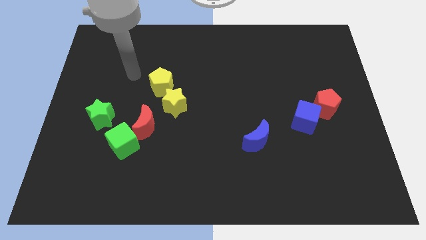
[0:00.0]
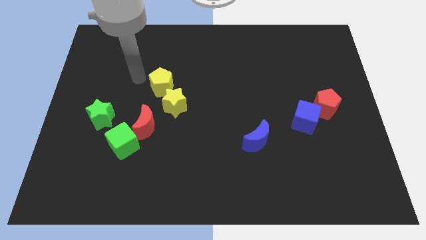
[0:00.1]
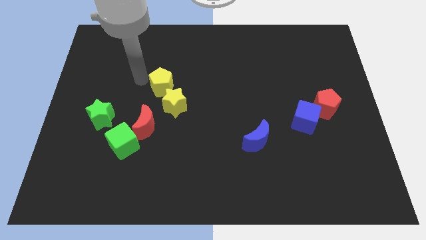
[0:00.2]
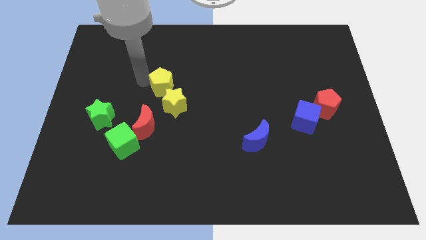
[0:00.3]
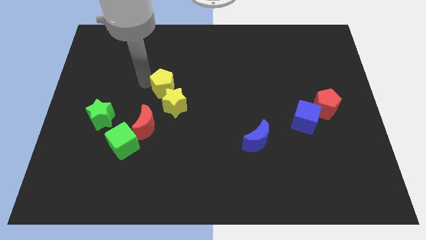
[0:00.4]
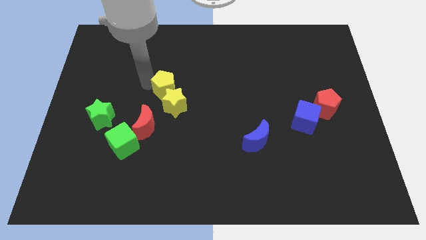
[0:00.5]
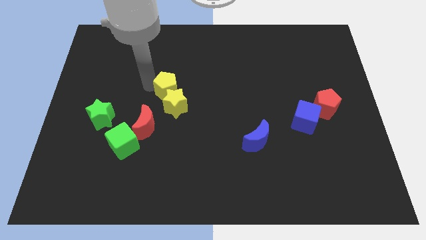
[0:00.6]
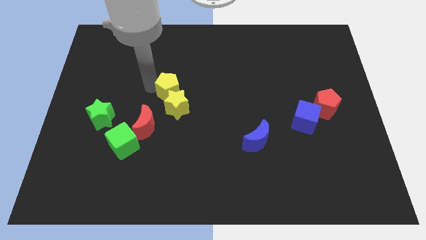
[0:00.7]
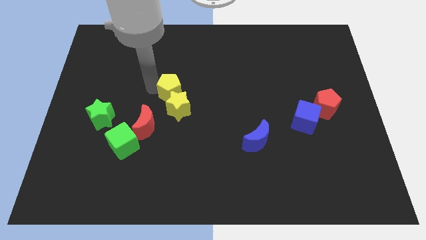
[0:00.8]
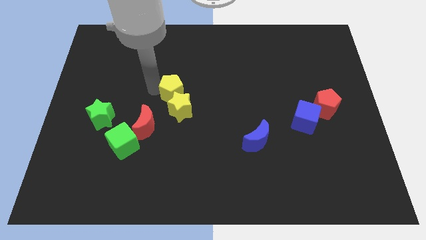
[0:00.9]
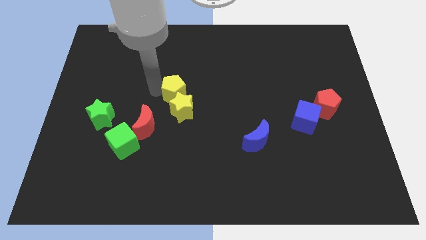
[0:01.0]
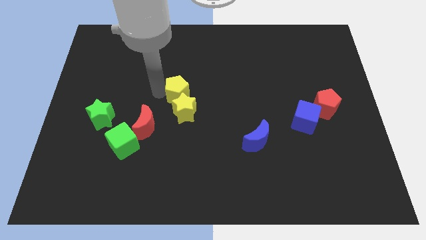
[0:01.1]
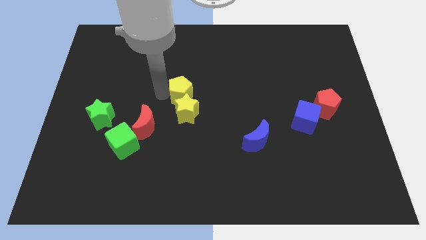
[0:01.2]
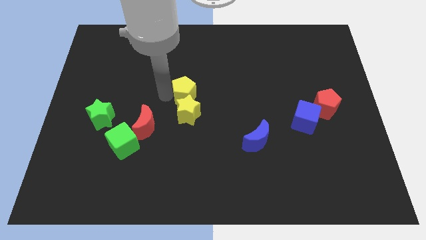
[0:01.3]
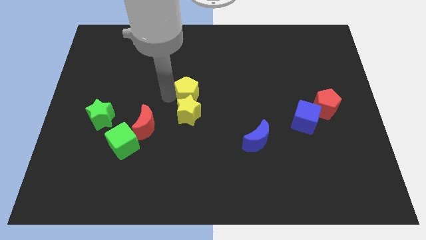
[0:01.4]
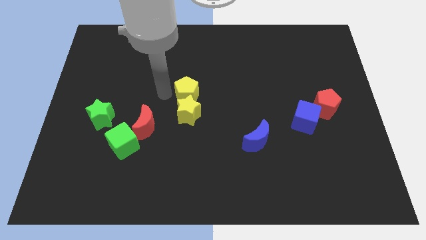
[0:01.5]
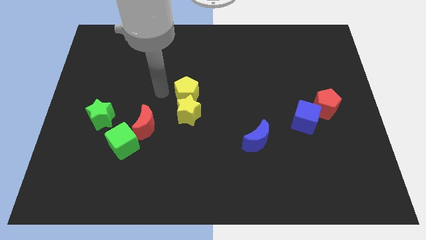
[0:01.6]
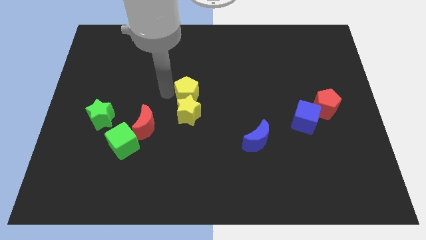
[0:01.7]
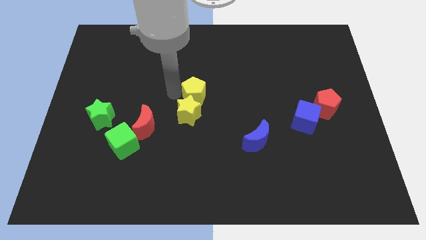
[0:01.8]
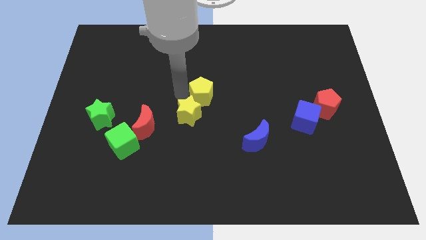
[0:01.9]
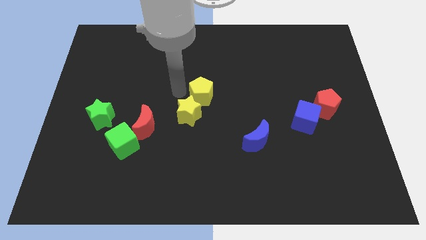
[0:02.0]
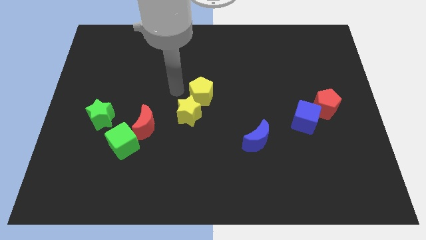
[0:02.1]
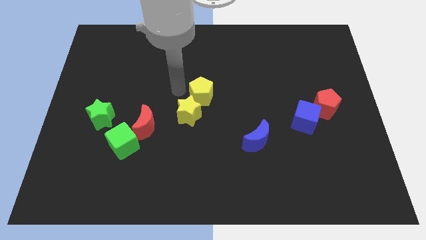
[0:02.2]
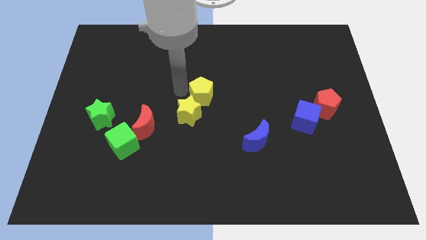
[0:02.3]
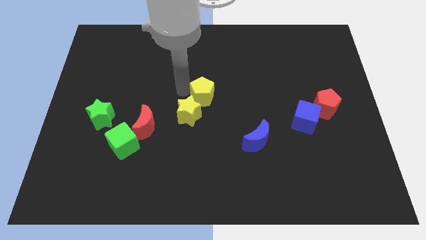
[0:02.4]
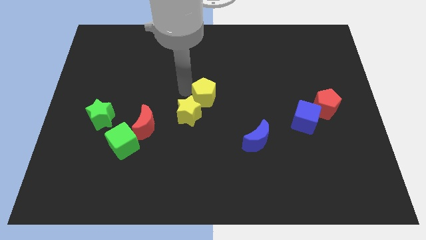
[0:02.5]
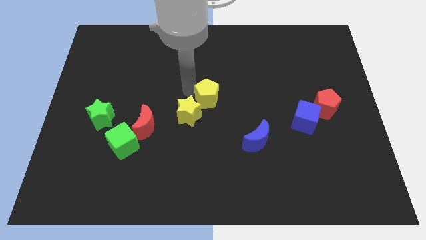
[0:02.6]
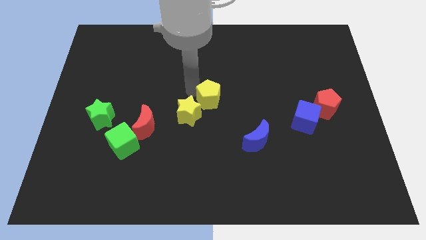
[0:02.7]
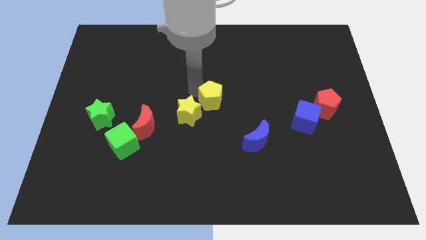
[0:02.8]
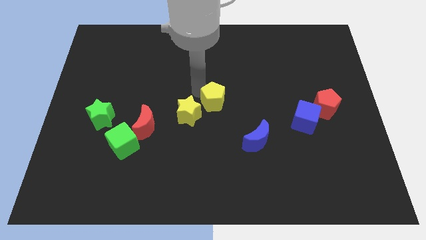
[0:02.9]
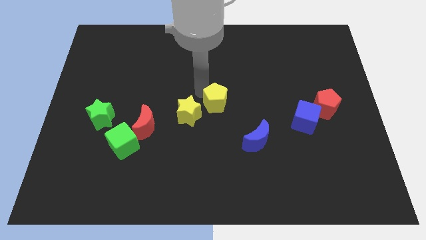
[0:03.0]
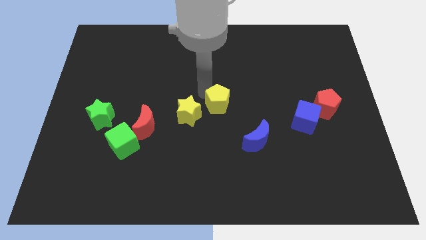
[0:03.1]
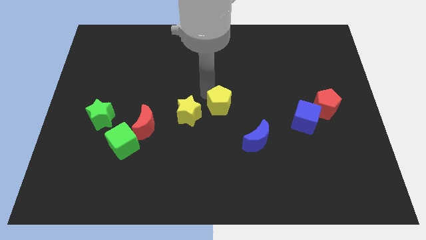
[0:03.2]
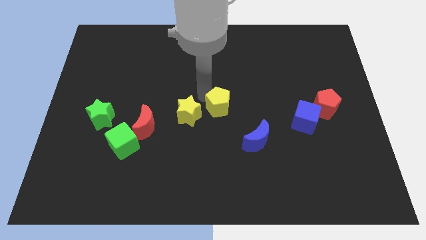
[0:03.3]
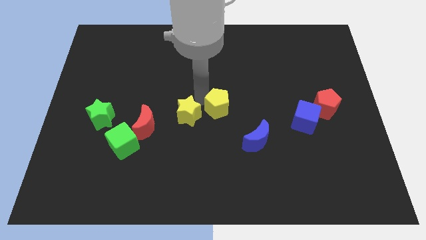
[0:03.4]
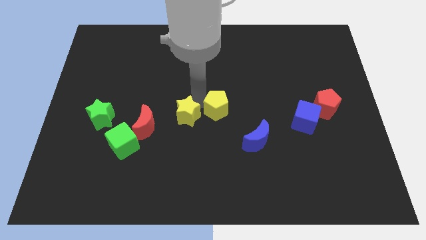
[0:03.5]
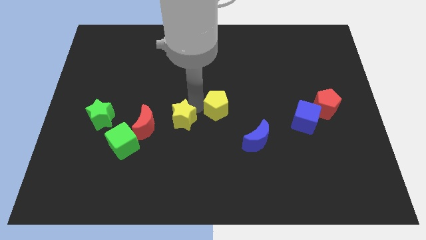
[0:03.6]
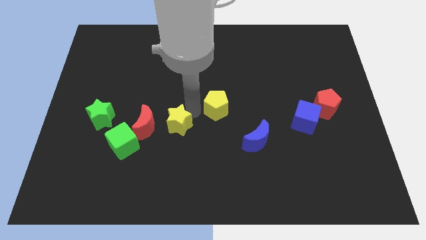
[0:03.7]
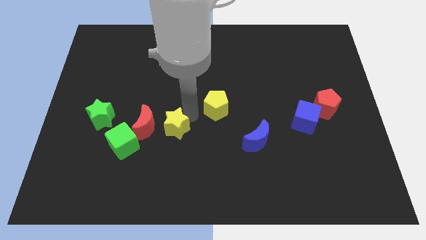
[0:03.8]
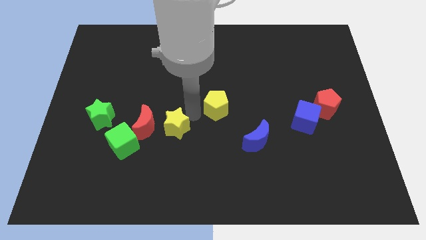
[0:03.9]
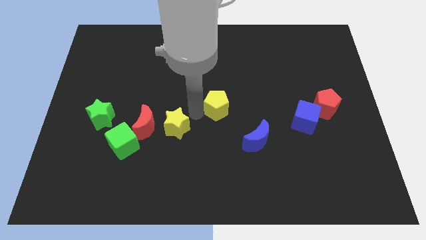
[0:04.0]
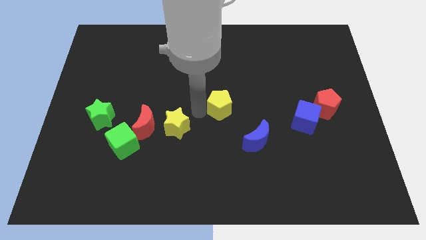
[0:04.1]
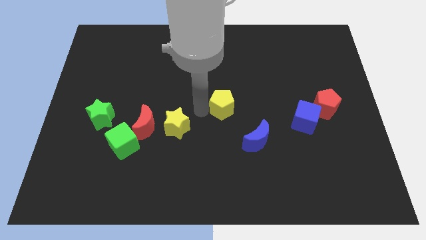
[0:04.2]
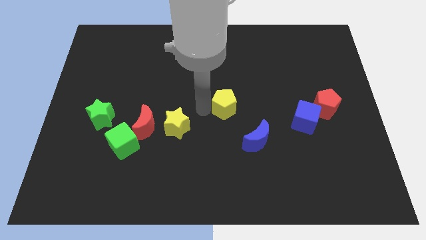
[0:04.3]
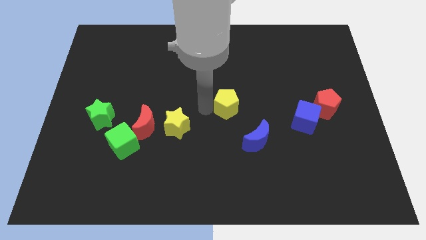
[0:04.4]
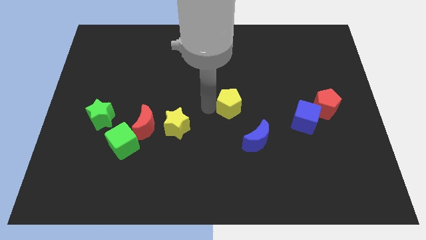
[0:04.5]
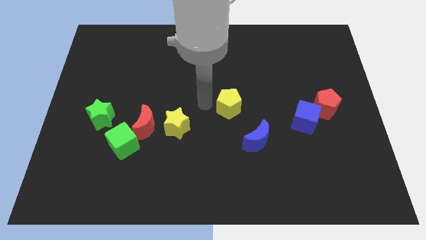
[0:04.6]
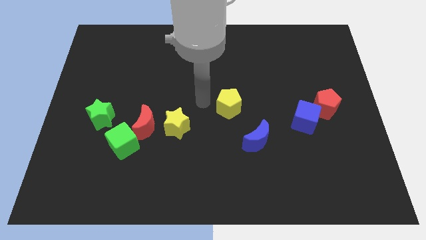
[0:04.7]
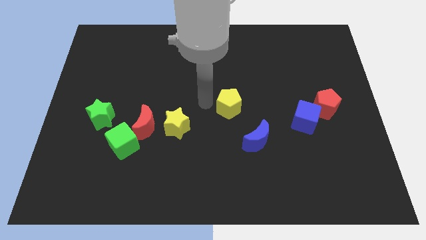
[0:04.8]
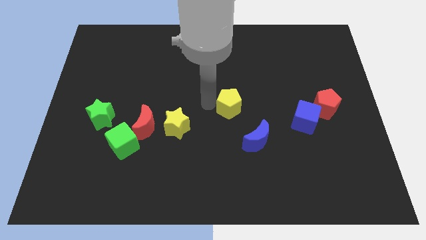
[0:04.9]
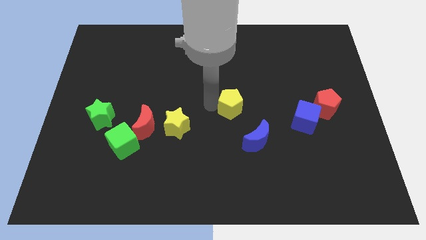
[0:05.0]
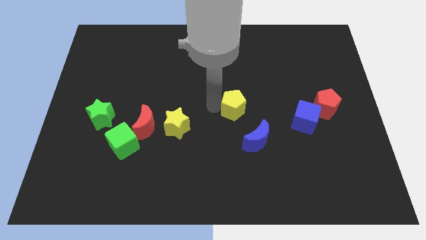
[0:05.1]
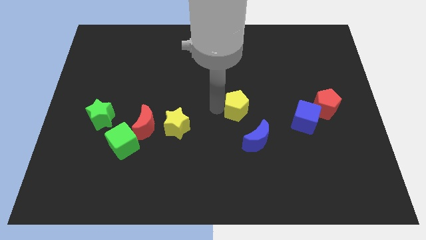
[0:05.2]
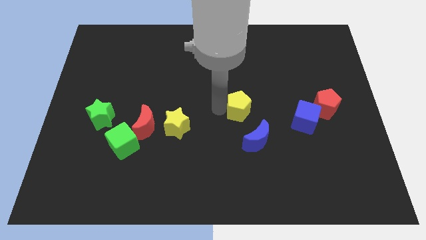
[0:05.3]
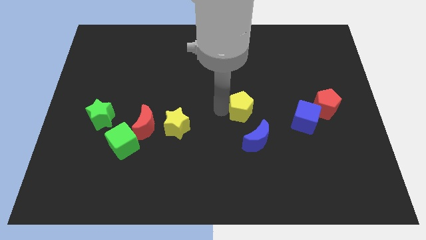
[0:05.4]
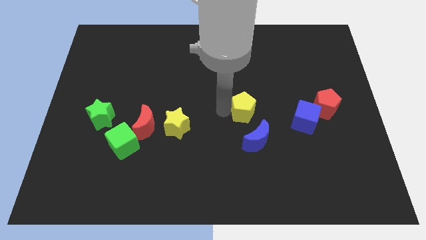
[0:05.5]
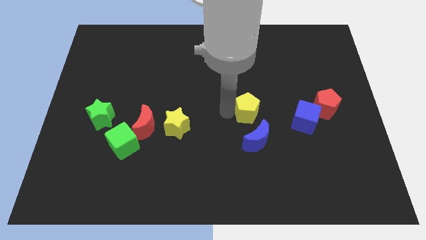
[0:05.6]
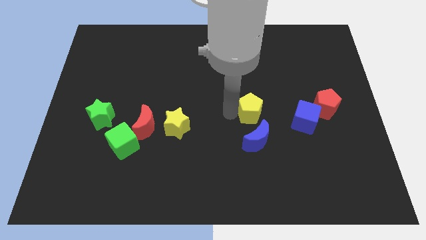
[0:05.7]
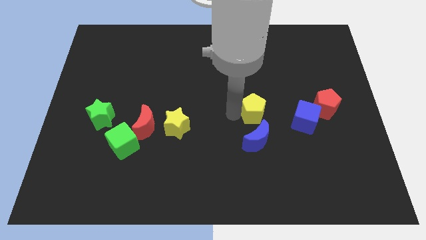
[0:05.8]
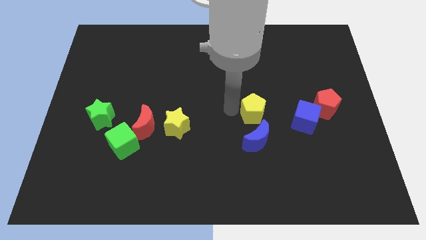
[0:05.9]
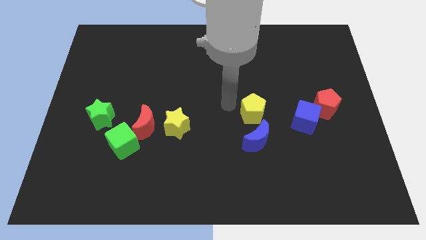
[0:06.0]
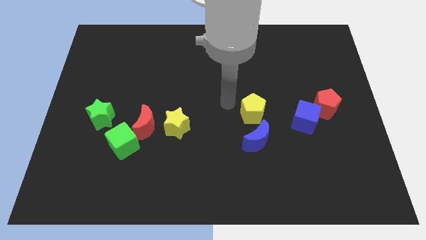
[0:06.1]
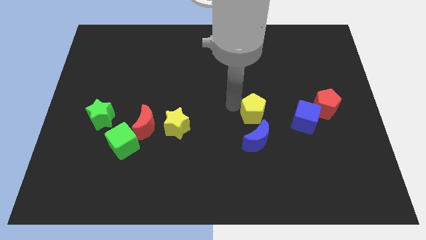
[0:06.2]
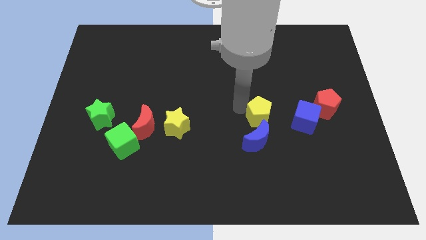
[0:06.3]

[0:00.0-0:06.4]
move the yellow pentagon to the top right side of the blue moon

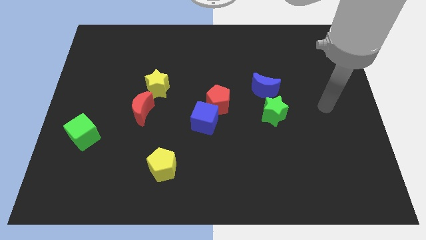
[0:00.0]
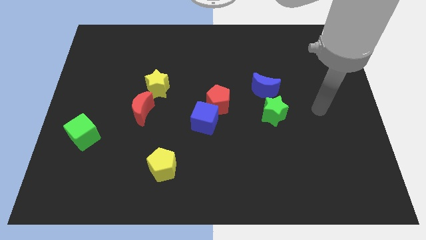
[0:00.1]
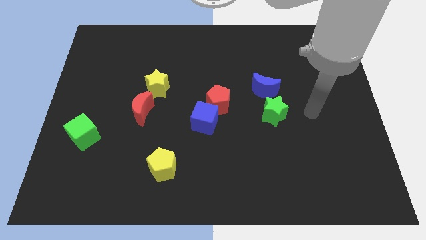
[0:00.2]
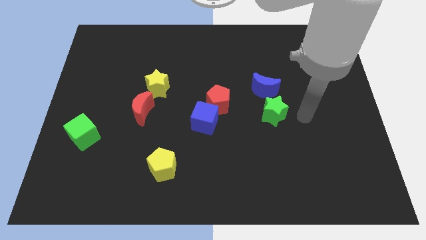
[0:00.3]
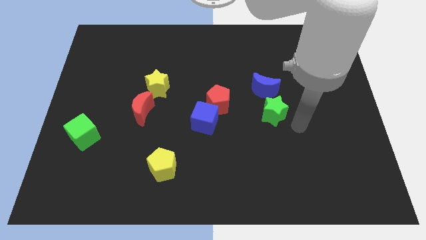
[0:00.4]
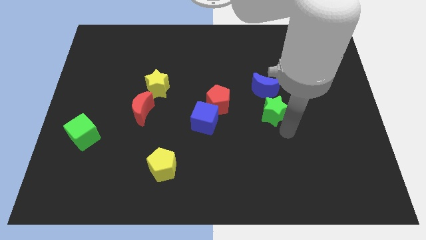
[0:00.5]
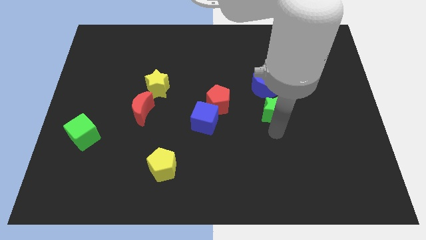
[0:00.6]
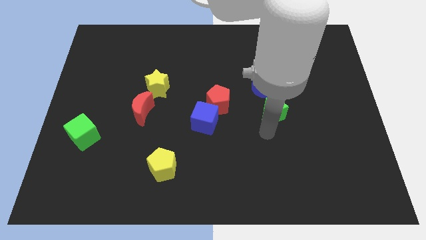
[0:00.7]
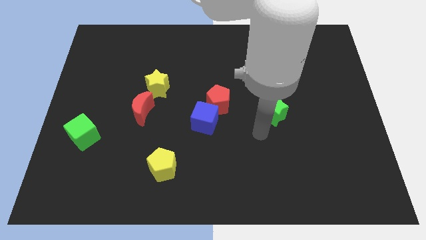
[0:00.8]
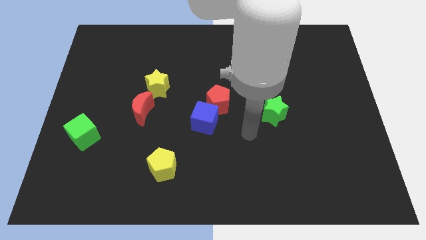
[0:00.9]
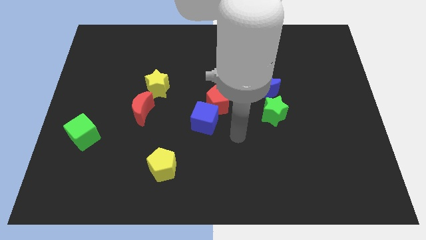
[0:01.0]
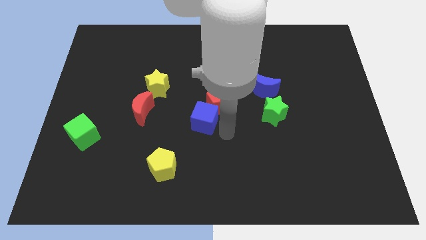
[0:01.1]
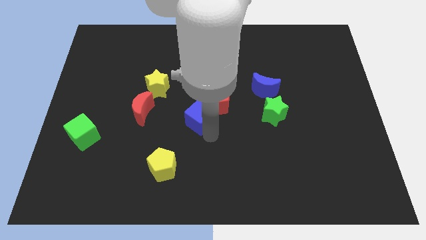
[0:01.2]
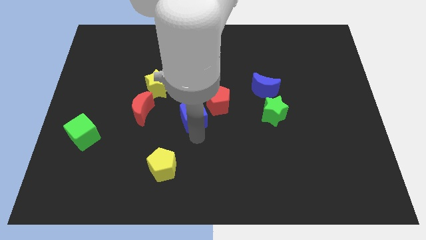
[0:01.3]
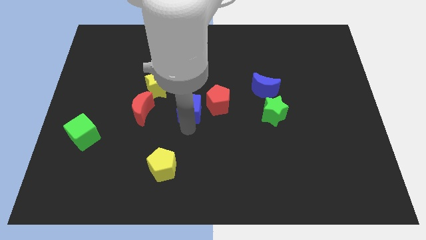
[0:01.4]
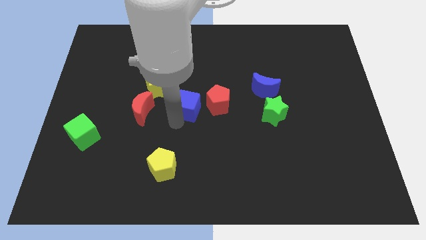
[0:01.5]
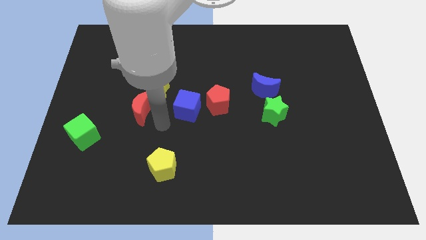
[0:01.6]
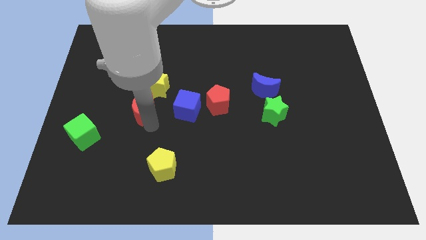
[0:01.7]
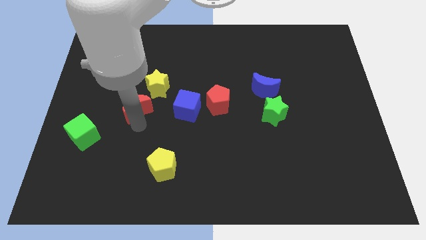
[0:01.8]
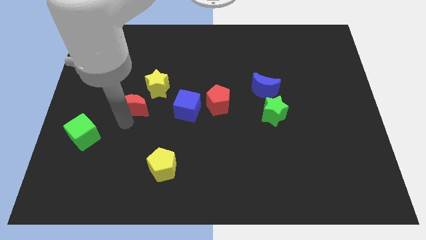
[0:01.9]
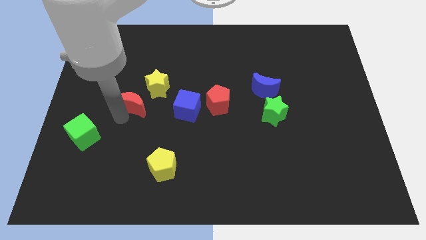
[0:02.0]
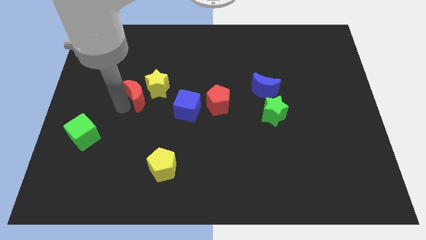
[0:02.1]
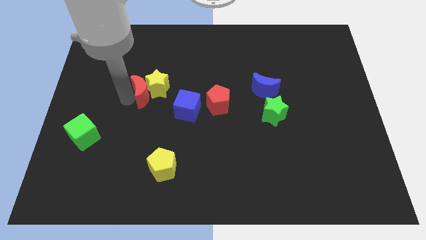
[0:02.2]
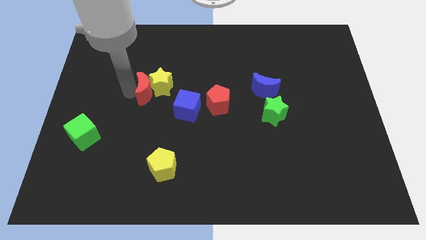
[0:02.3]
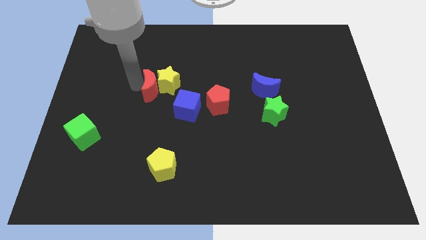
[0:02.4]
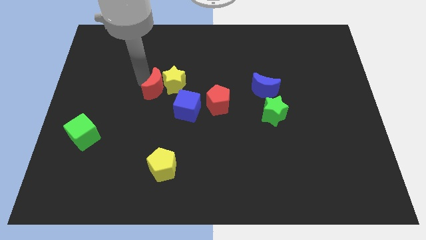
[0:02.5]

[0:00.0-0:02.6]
slide the yellow star to the top left side of the red pentagon
